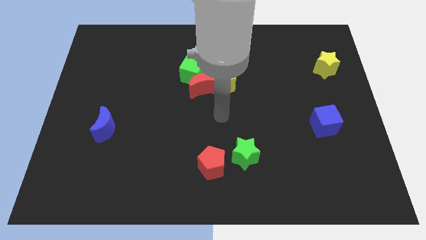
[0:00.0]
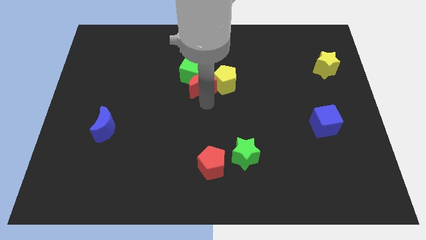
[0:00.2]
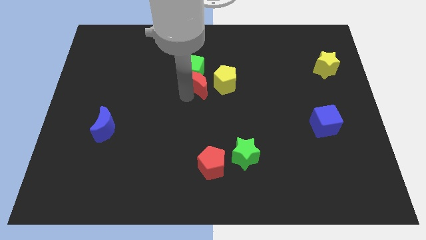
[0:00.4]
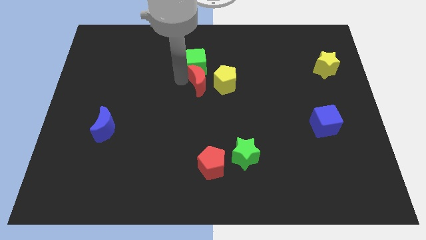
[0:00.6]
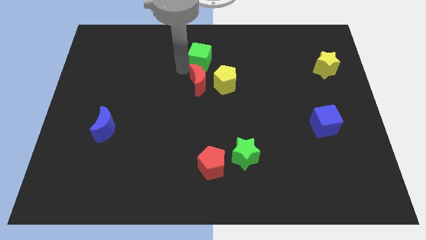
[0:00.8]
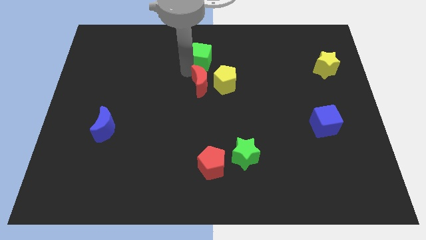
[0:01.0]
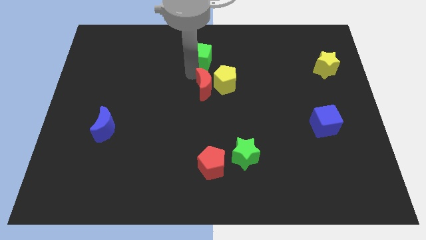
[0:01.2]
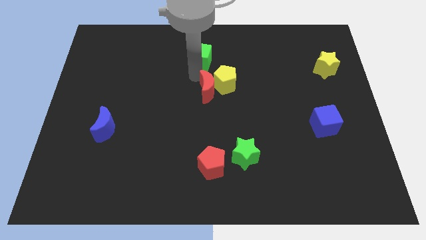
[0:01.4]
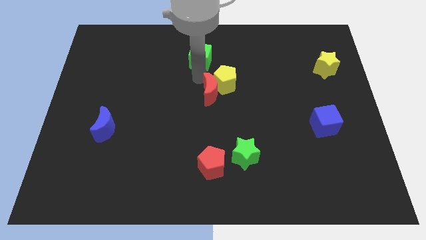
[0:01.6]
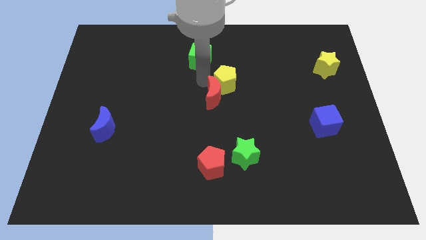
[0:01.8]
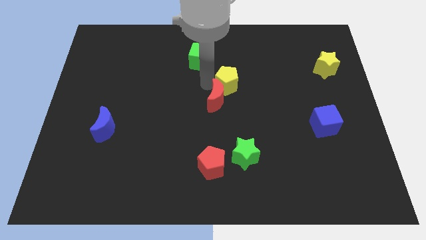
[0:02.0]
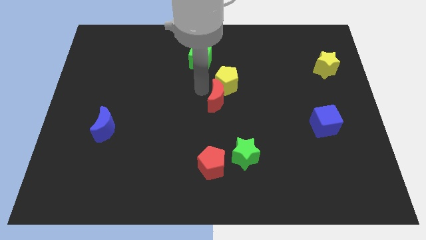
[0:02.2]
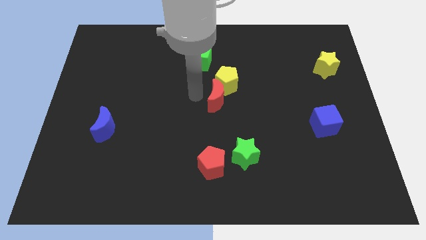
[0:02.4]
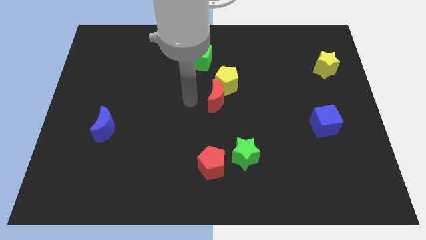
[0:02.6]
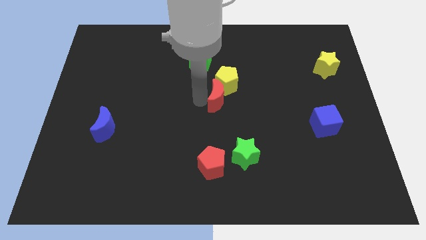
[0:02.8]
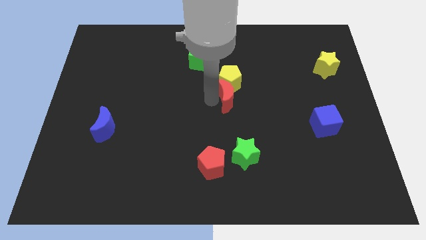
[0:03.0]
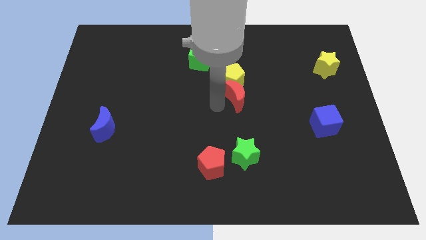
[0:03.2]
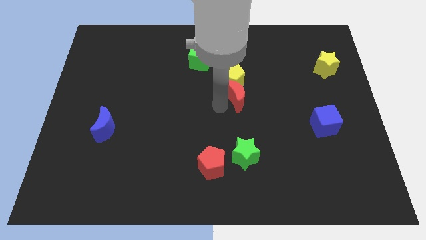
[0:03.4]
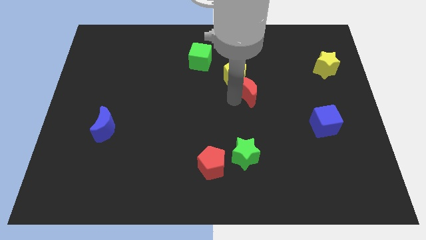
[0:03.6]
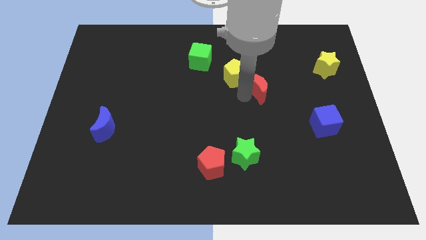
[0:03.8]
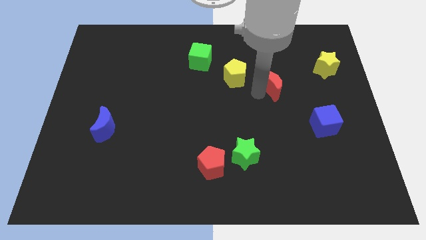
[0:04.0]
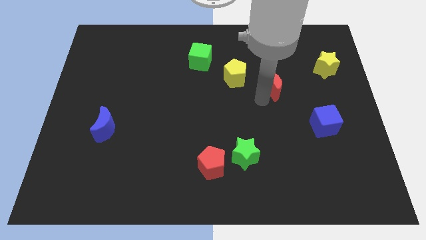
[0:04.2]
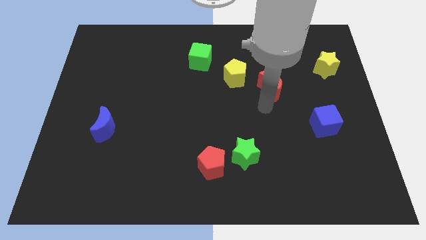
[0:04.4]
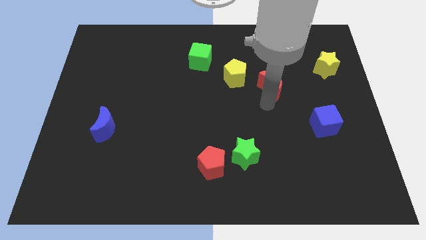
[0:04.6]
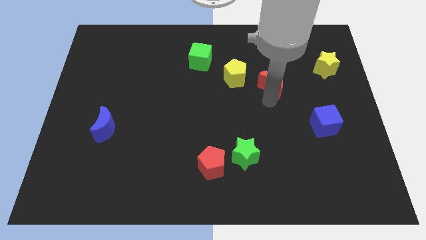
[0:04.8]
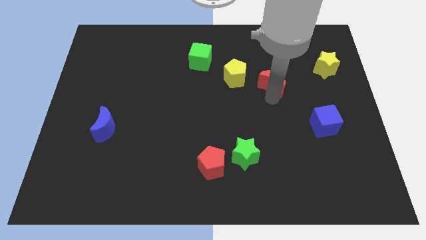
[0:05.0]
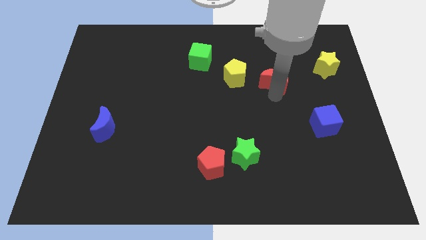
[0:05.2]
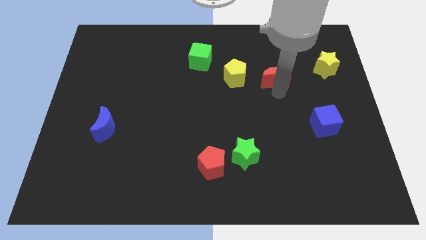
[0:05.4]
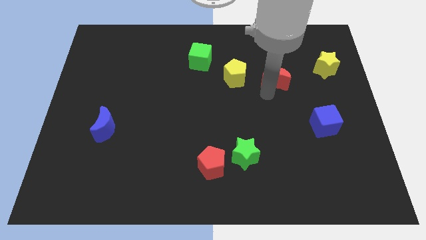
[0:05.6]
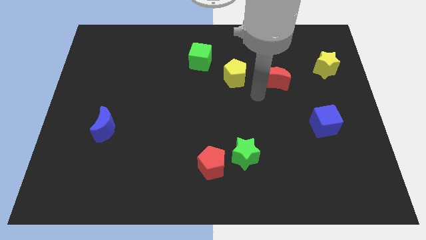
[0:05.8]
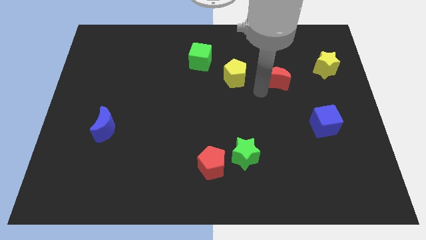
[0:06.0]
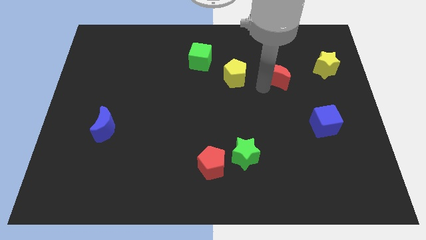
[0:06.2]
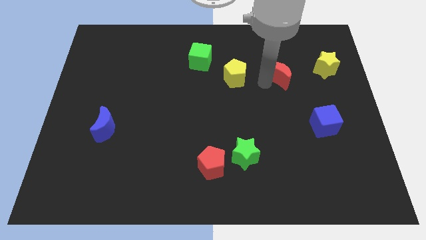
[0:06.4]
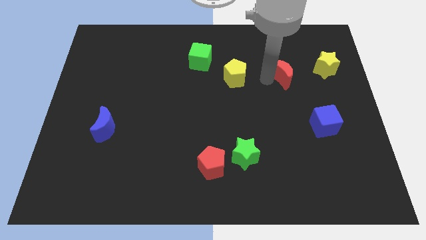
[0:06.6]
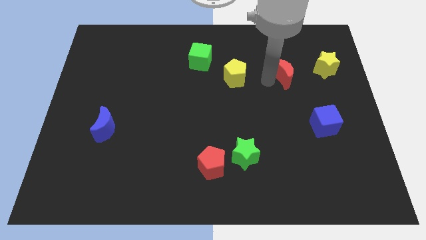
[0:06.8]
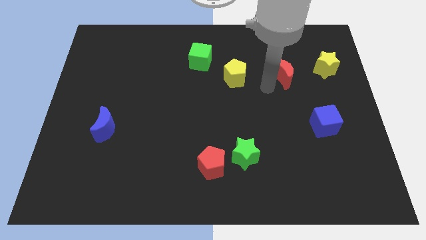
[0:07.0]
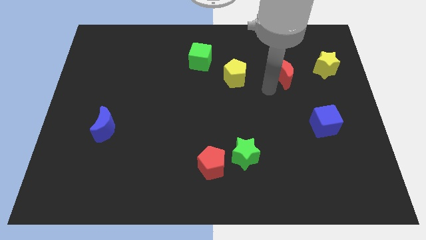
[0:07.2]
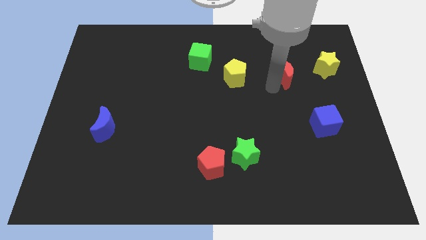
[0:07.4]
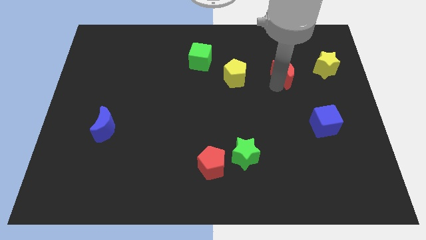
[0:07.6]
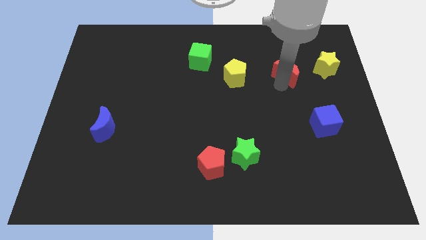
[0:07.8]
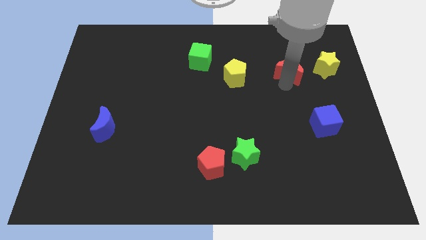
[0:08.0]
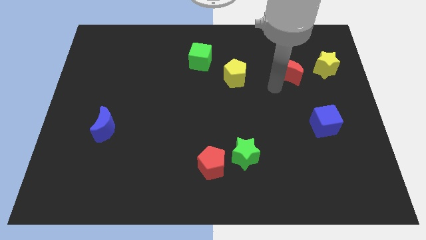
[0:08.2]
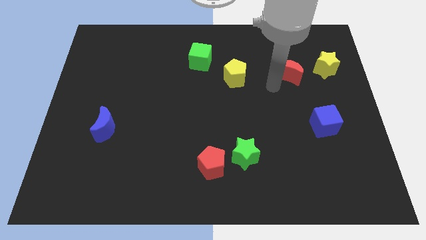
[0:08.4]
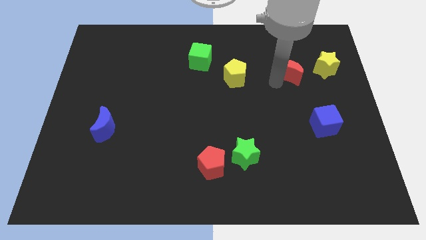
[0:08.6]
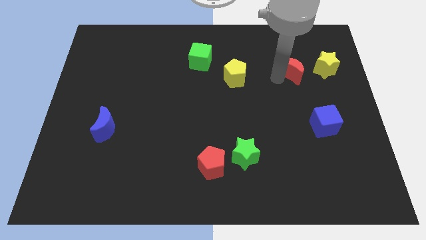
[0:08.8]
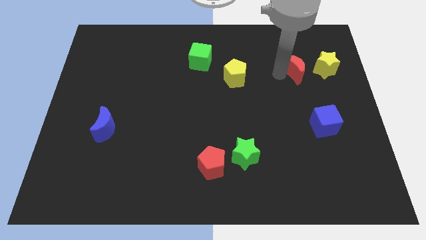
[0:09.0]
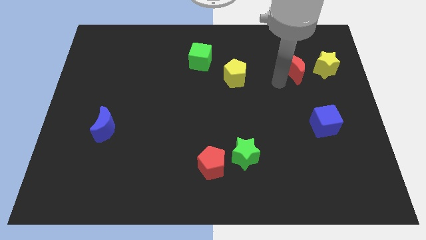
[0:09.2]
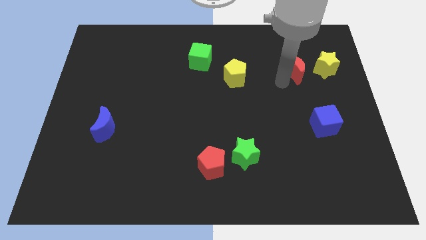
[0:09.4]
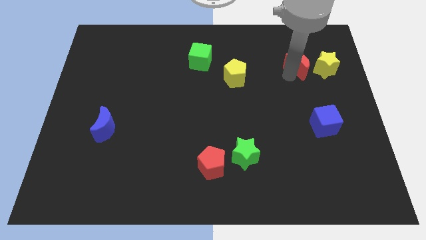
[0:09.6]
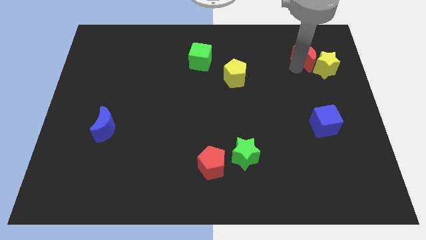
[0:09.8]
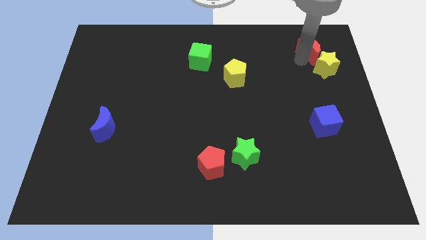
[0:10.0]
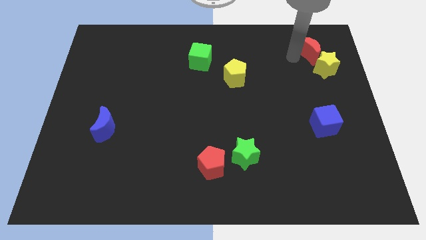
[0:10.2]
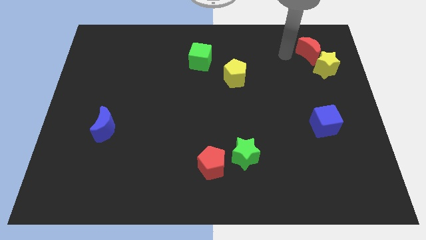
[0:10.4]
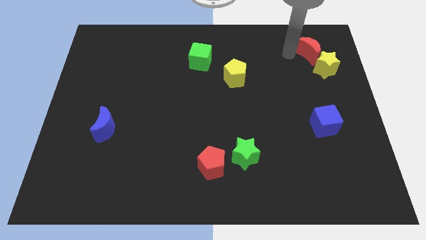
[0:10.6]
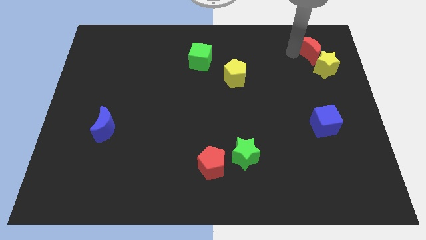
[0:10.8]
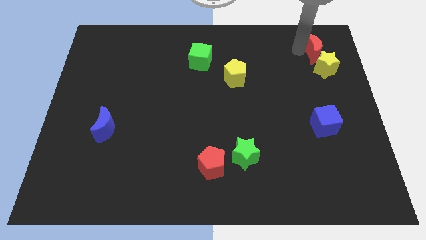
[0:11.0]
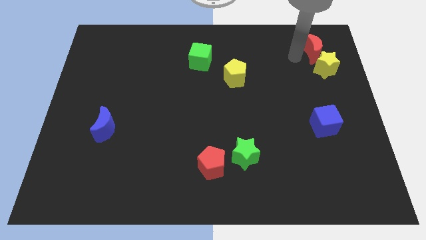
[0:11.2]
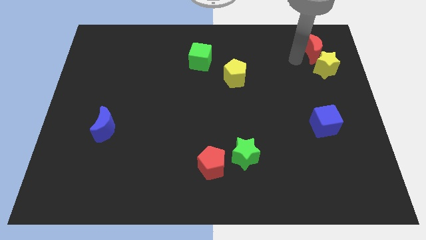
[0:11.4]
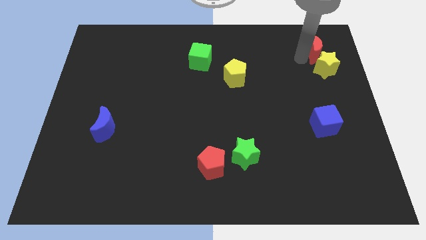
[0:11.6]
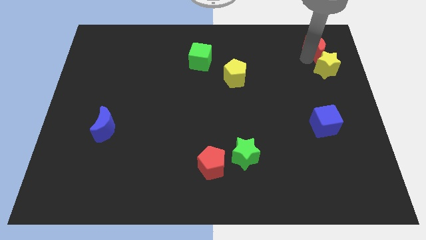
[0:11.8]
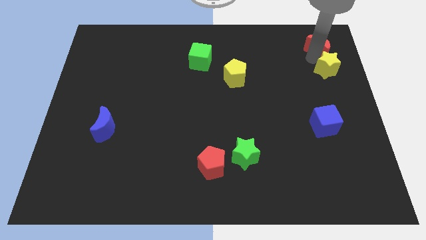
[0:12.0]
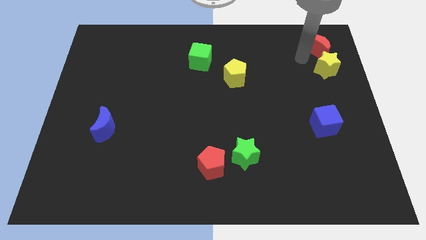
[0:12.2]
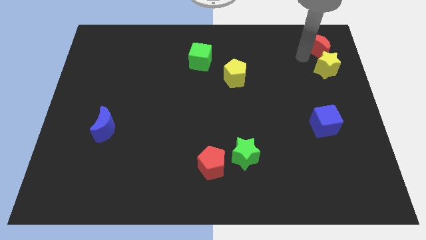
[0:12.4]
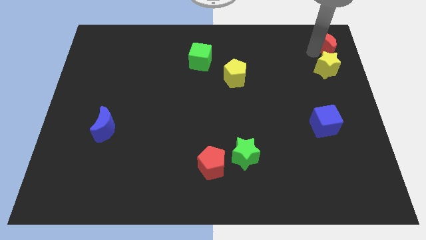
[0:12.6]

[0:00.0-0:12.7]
slide the red moon to the top right corner

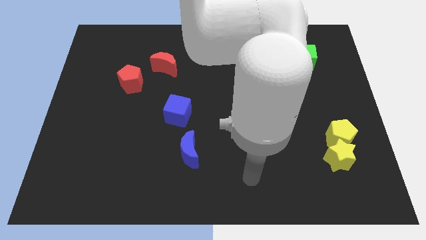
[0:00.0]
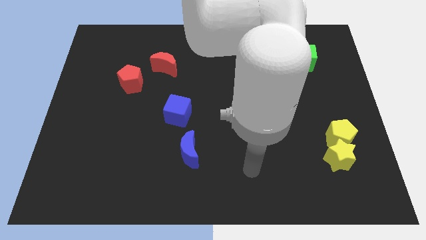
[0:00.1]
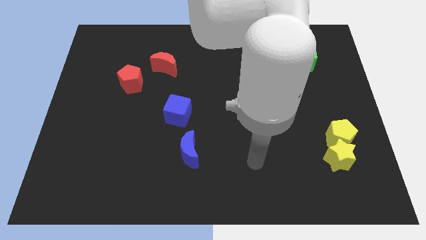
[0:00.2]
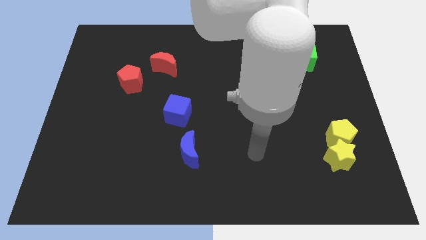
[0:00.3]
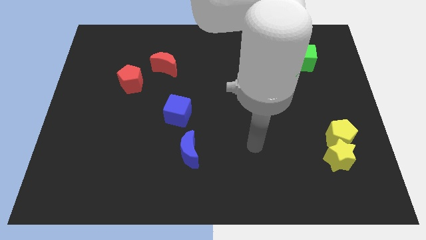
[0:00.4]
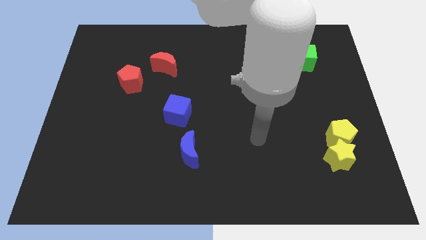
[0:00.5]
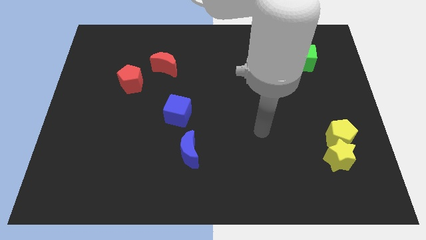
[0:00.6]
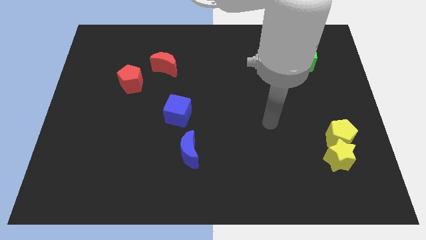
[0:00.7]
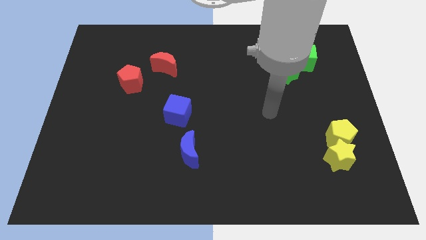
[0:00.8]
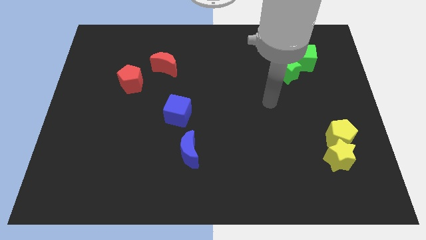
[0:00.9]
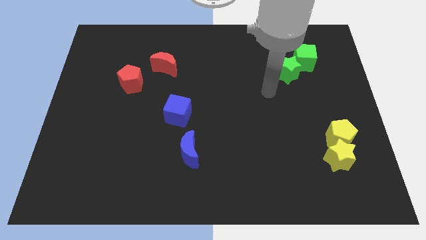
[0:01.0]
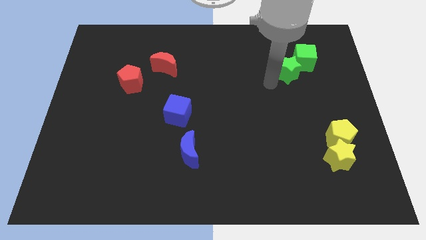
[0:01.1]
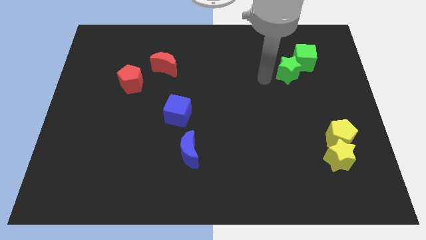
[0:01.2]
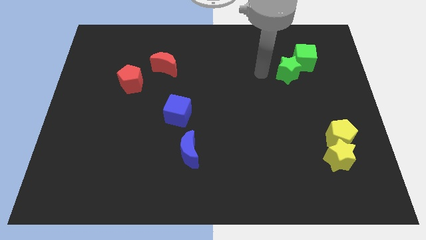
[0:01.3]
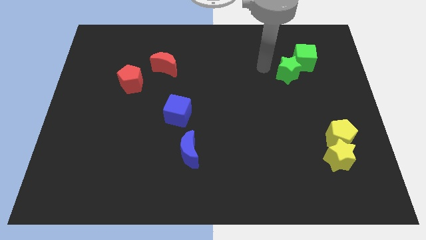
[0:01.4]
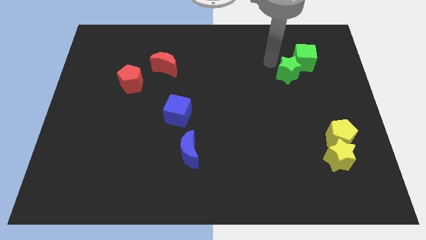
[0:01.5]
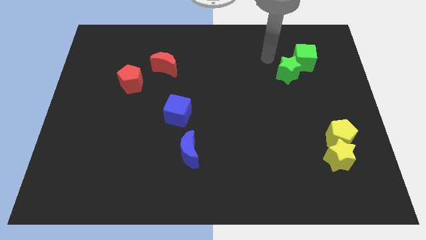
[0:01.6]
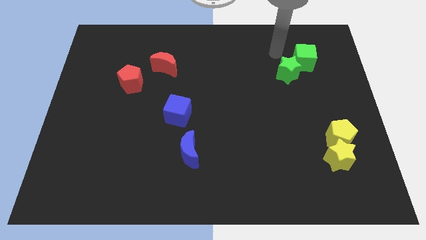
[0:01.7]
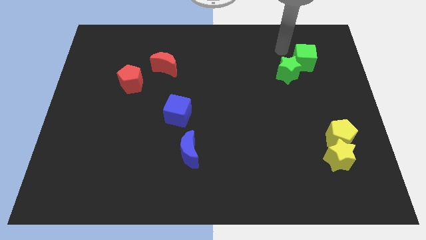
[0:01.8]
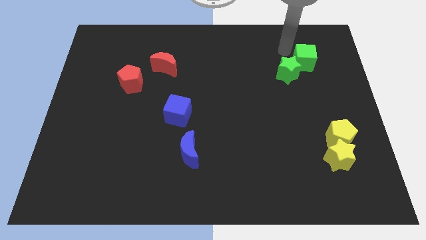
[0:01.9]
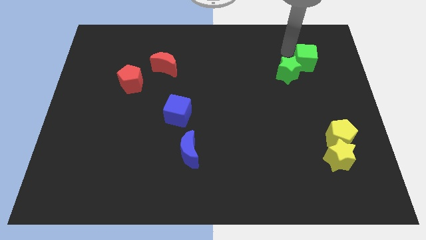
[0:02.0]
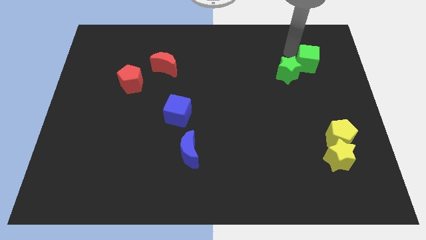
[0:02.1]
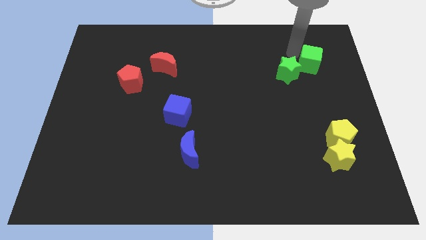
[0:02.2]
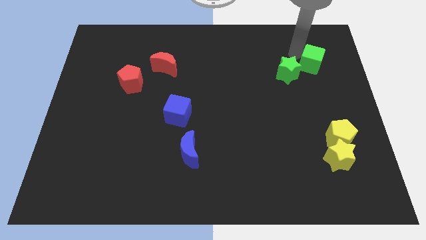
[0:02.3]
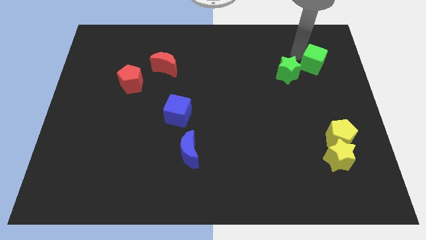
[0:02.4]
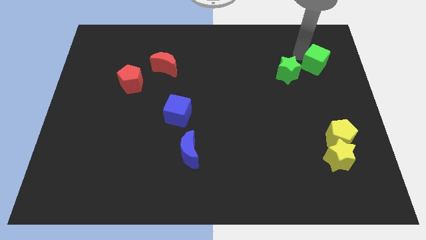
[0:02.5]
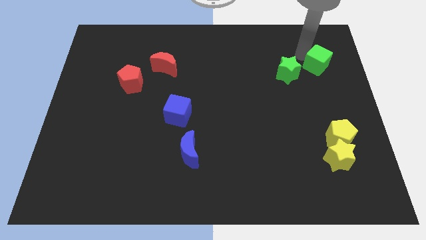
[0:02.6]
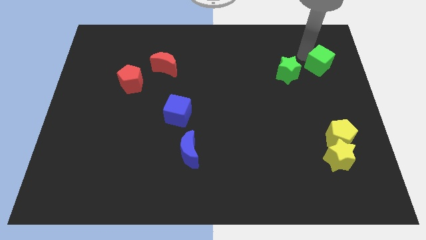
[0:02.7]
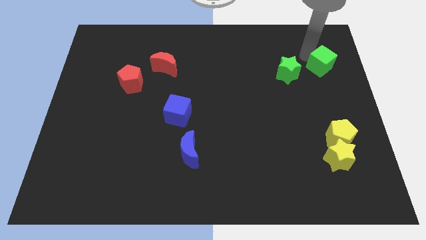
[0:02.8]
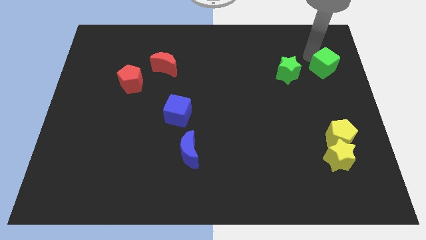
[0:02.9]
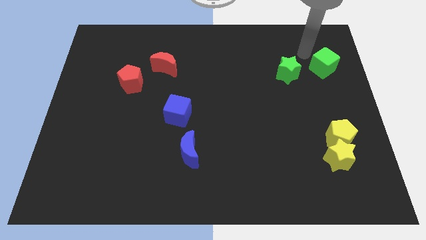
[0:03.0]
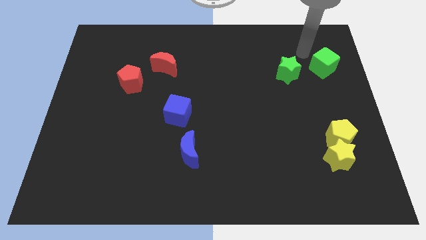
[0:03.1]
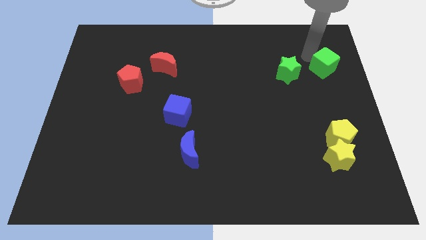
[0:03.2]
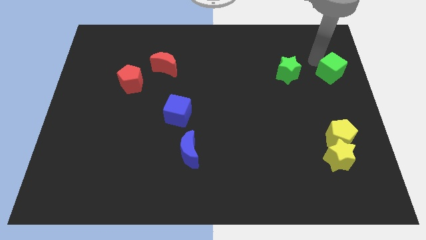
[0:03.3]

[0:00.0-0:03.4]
push the green cube to the center right
